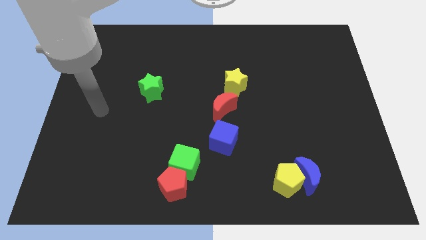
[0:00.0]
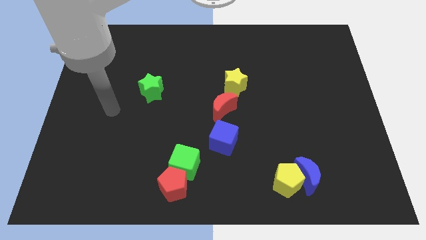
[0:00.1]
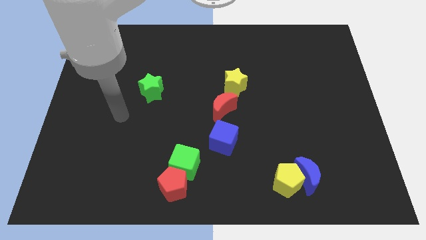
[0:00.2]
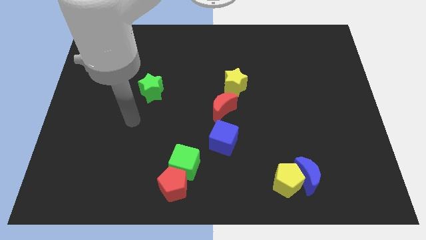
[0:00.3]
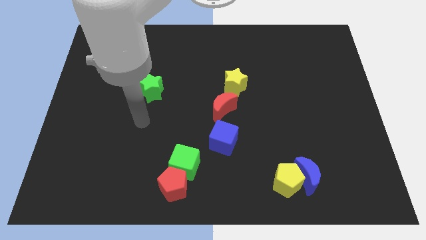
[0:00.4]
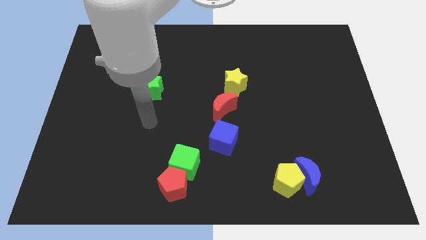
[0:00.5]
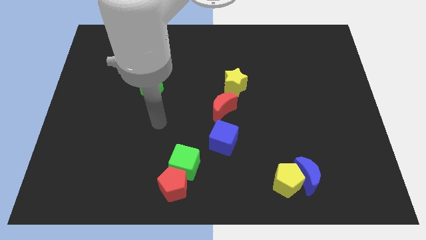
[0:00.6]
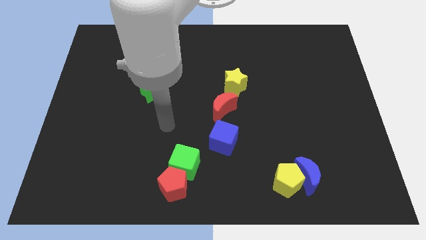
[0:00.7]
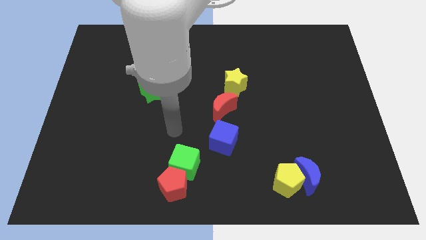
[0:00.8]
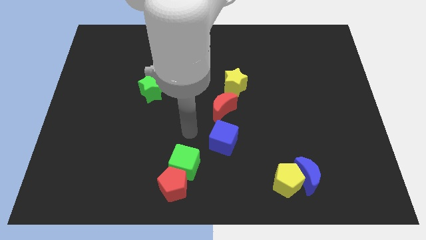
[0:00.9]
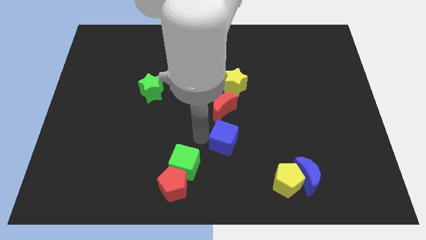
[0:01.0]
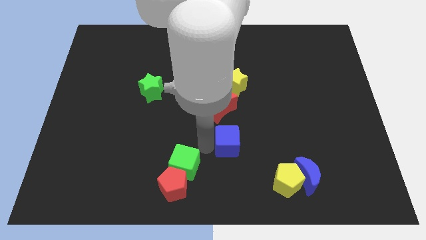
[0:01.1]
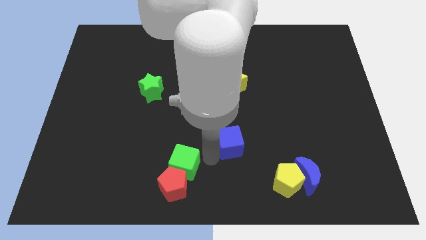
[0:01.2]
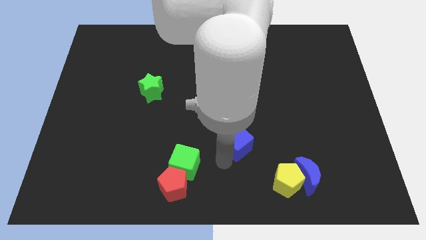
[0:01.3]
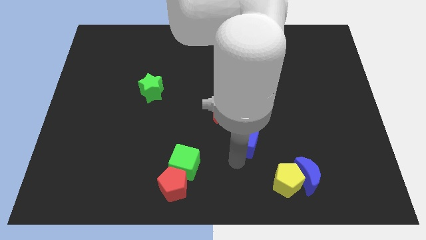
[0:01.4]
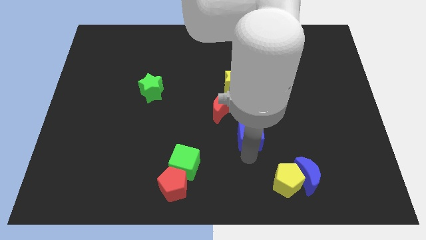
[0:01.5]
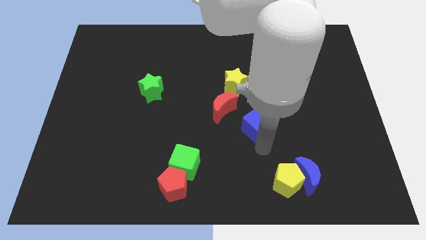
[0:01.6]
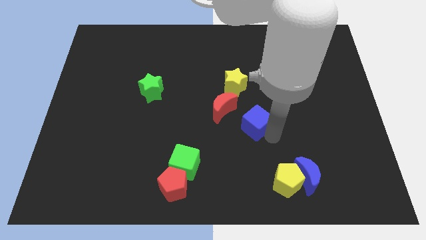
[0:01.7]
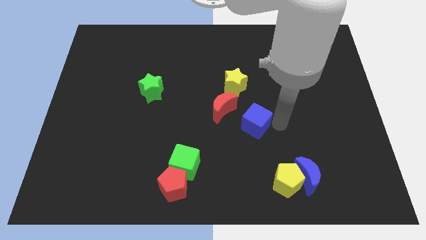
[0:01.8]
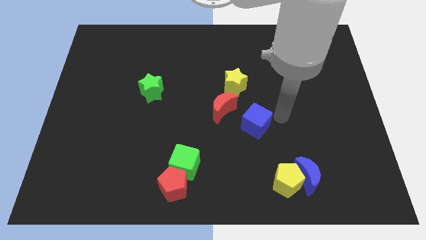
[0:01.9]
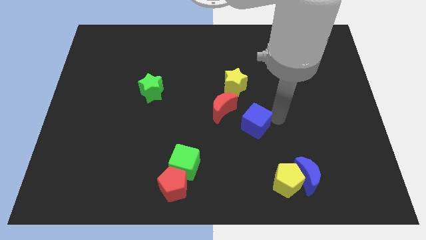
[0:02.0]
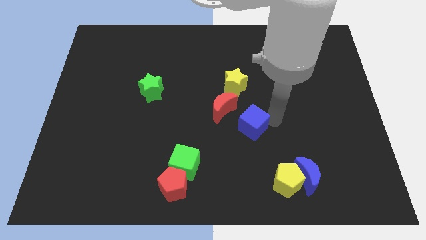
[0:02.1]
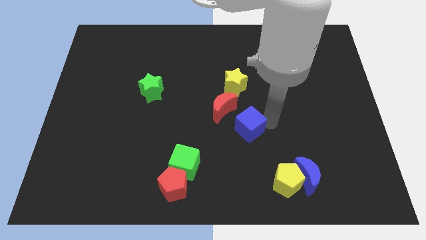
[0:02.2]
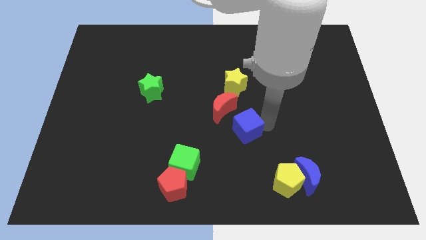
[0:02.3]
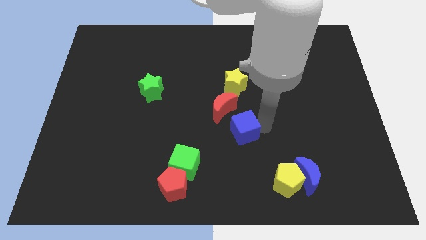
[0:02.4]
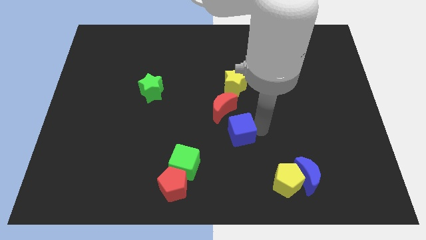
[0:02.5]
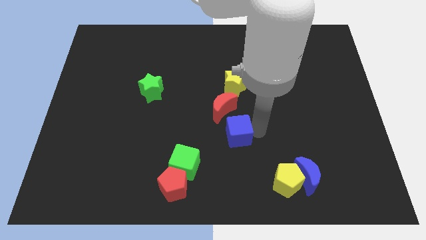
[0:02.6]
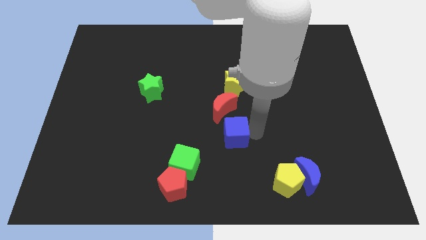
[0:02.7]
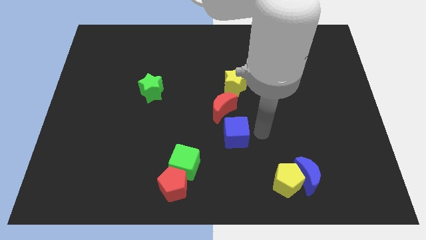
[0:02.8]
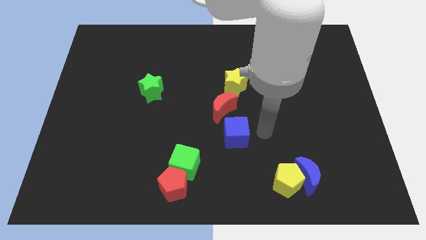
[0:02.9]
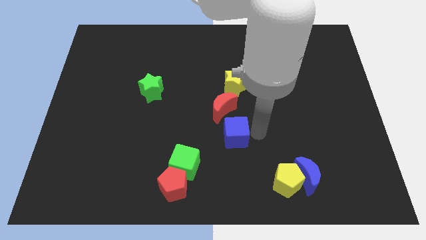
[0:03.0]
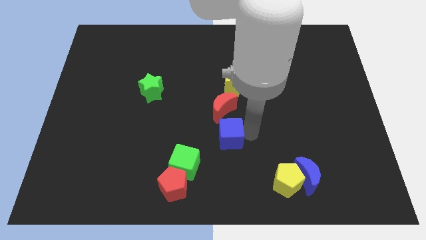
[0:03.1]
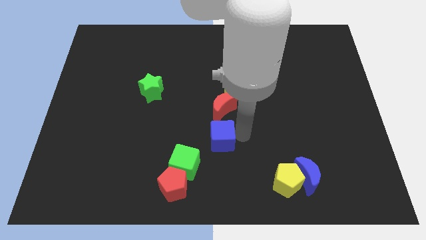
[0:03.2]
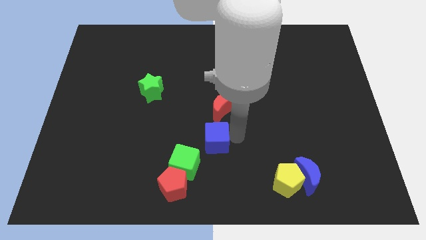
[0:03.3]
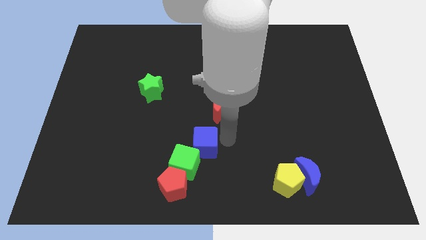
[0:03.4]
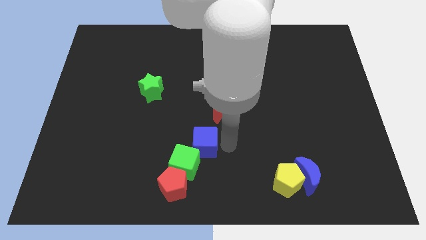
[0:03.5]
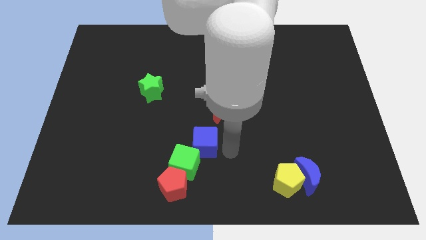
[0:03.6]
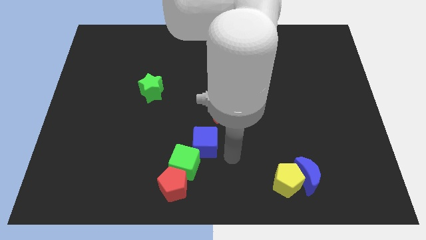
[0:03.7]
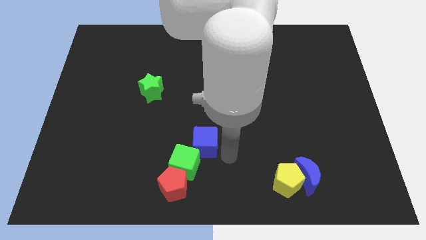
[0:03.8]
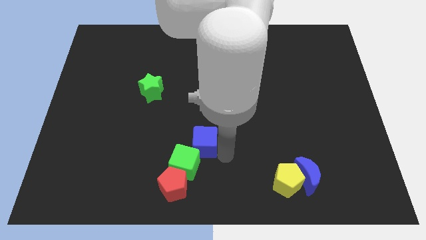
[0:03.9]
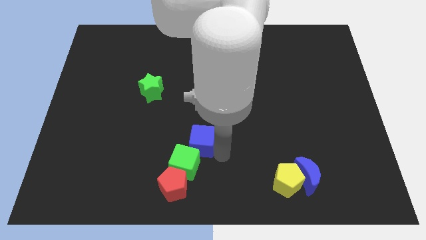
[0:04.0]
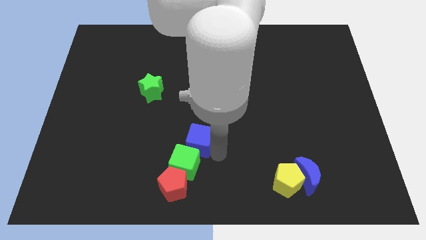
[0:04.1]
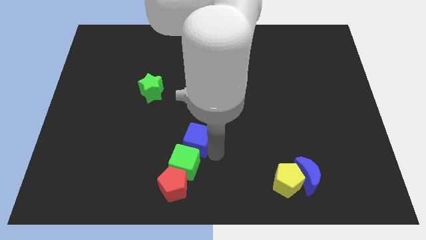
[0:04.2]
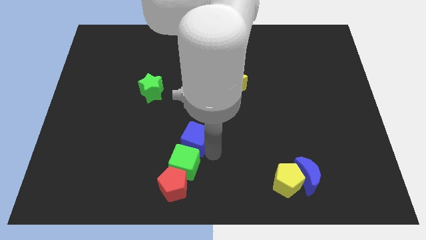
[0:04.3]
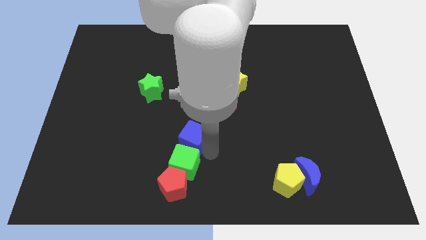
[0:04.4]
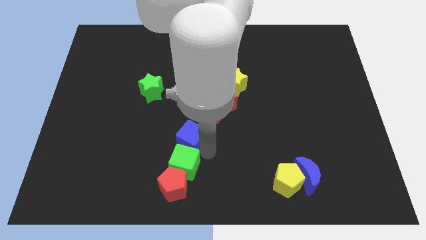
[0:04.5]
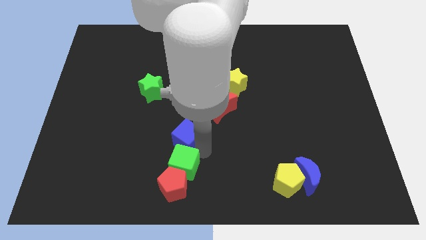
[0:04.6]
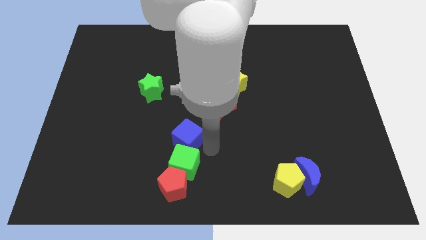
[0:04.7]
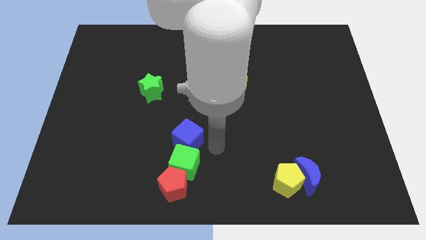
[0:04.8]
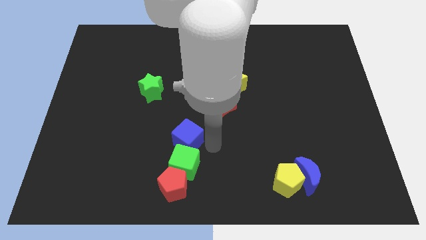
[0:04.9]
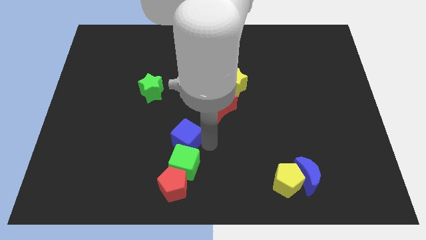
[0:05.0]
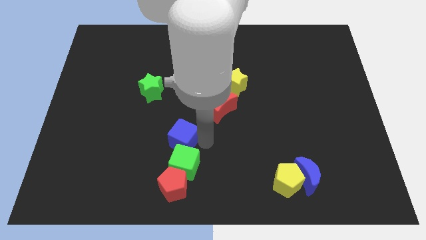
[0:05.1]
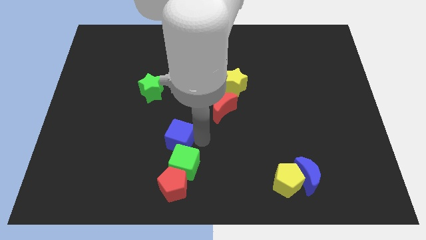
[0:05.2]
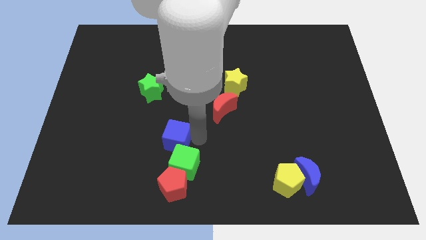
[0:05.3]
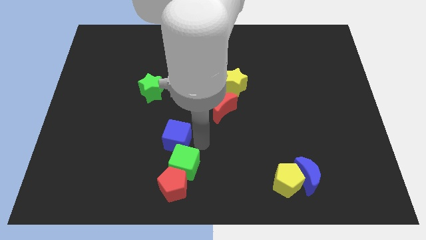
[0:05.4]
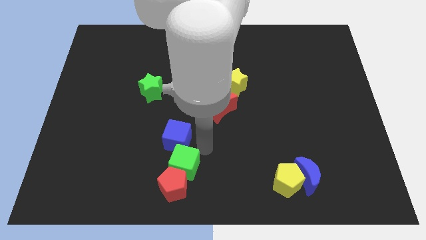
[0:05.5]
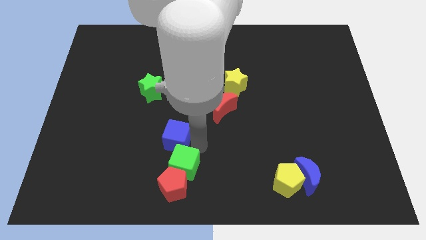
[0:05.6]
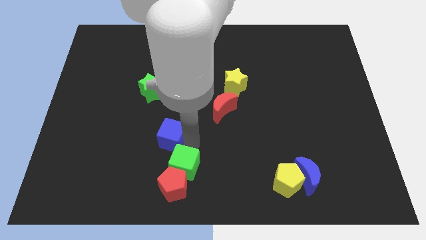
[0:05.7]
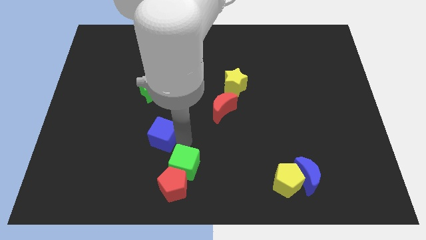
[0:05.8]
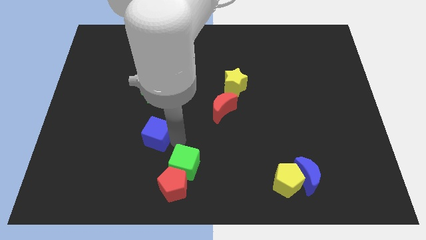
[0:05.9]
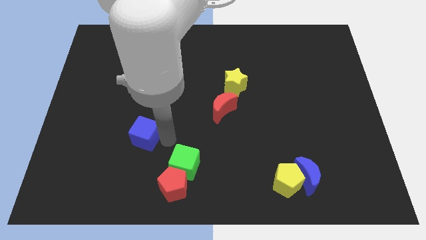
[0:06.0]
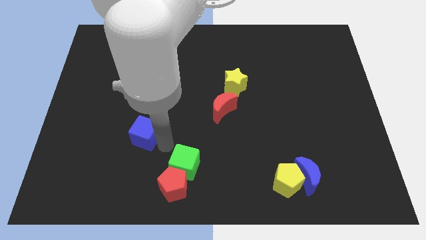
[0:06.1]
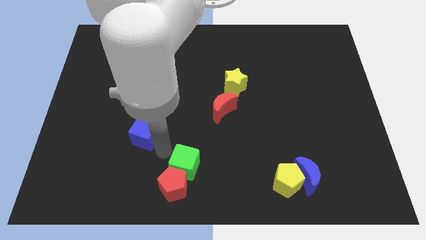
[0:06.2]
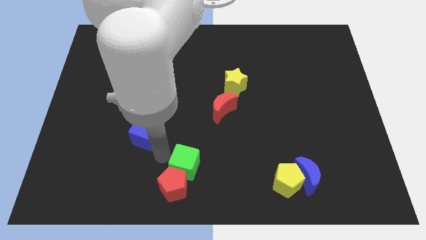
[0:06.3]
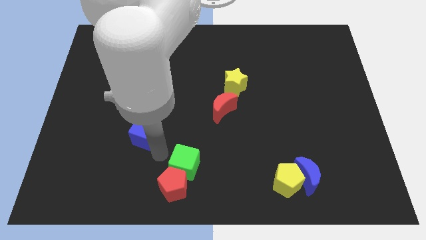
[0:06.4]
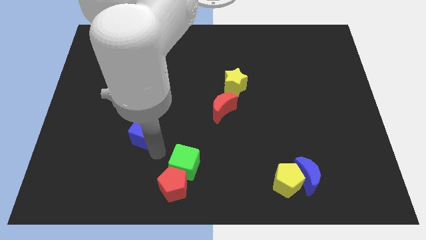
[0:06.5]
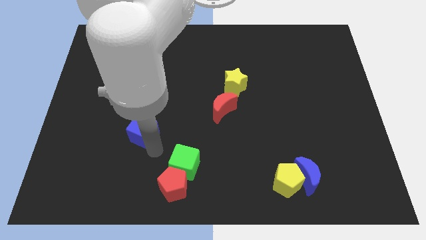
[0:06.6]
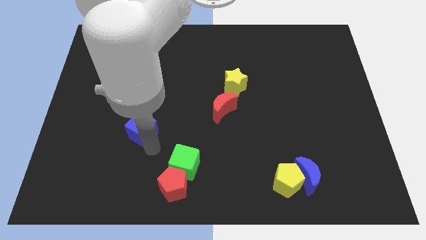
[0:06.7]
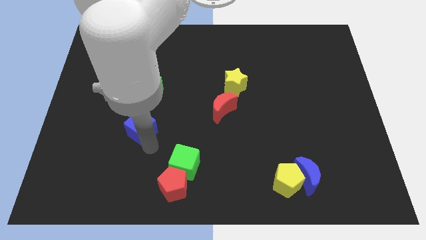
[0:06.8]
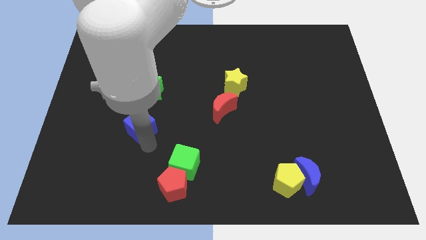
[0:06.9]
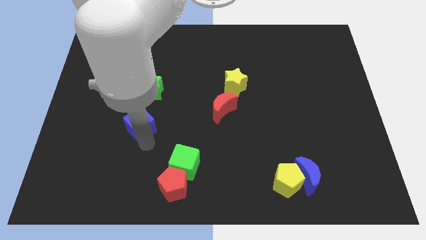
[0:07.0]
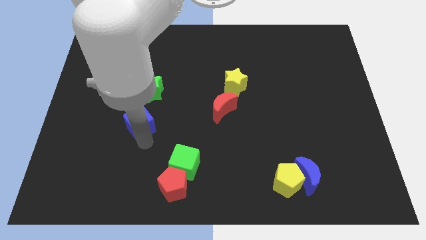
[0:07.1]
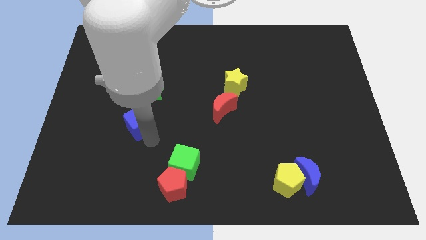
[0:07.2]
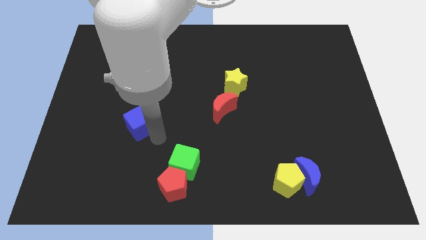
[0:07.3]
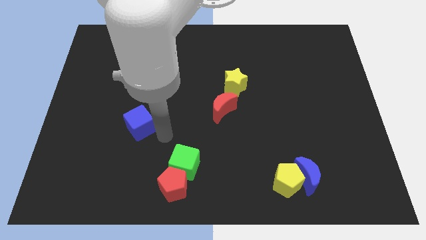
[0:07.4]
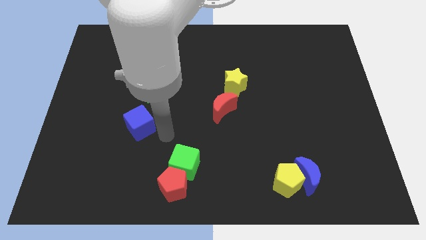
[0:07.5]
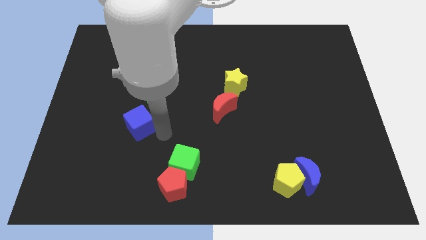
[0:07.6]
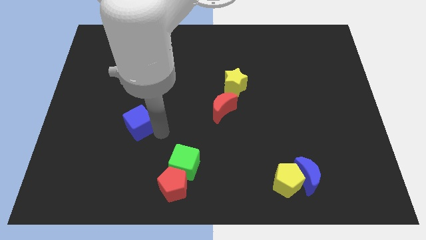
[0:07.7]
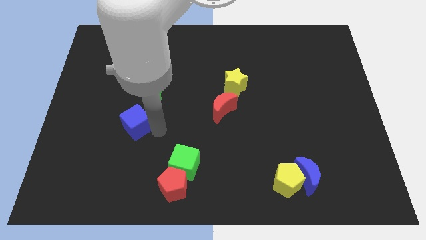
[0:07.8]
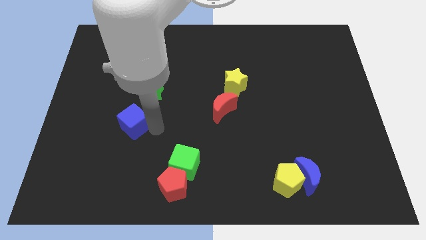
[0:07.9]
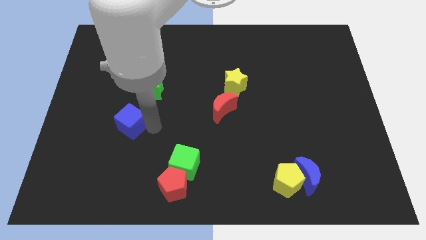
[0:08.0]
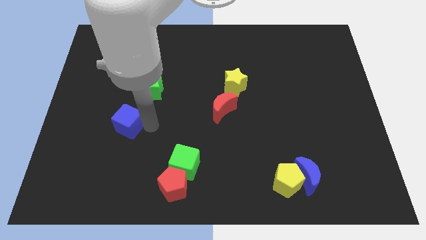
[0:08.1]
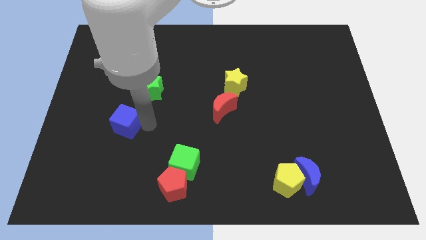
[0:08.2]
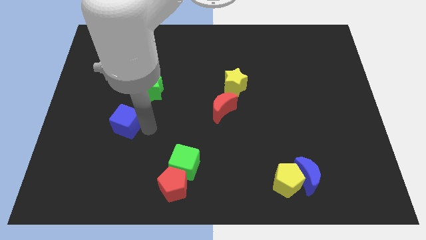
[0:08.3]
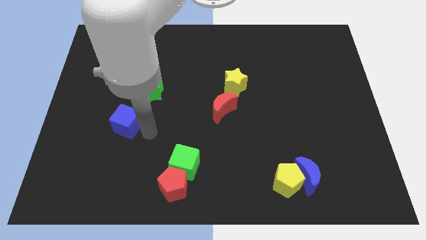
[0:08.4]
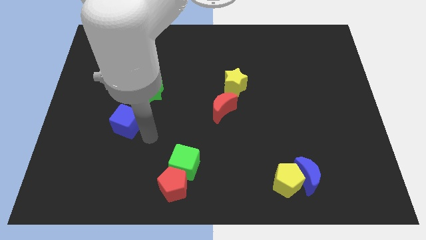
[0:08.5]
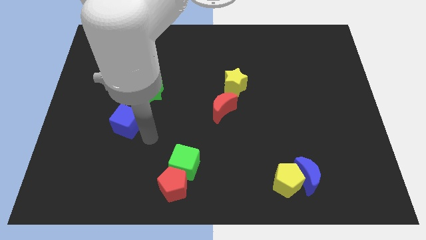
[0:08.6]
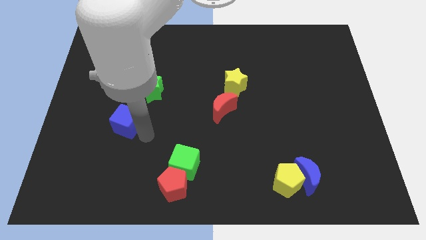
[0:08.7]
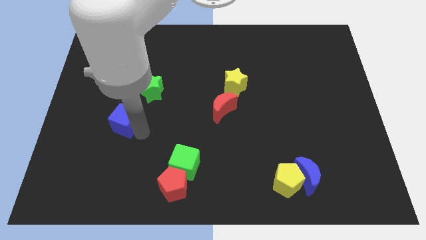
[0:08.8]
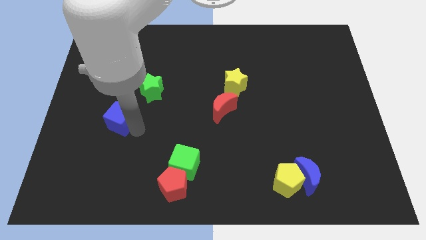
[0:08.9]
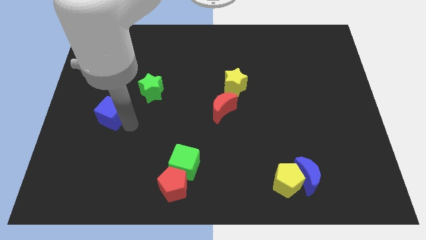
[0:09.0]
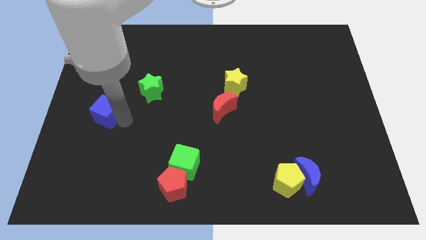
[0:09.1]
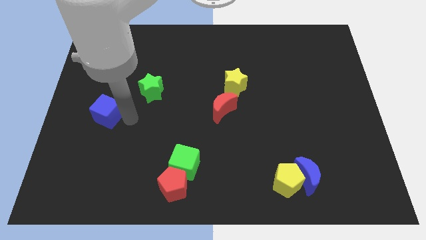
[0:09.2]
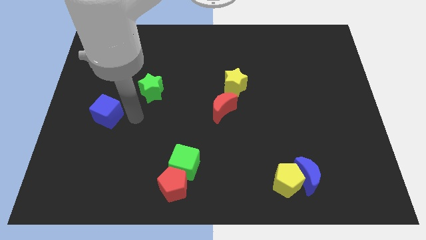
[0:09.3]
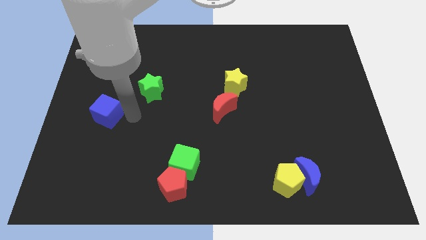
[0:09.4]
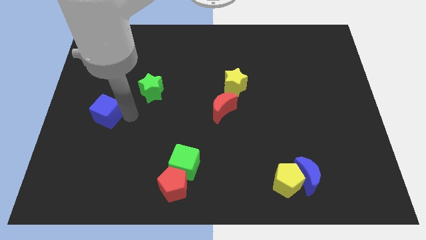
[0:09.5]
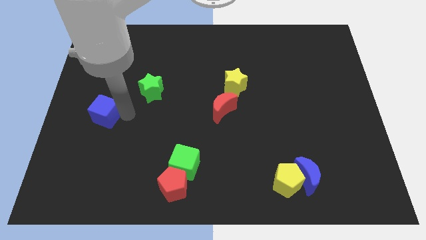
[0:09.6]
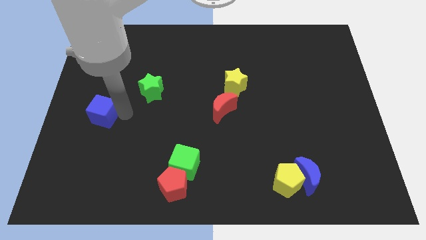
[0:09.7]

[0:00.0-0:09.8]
slide the blue cube to the center left
